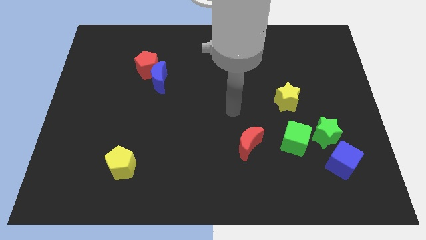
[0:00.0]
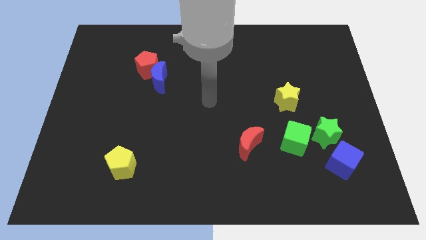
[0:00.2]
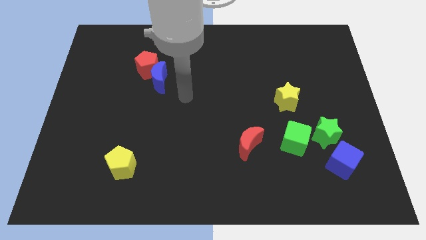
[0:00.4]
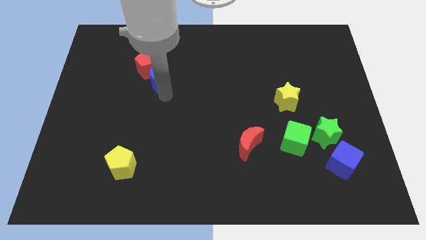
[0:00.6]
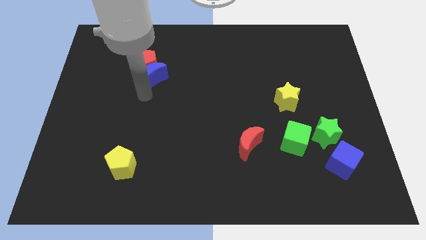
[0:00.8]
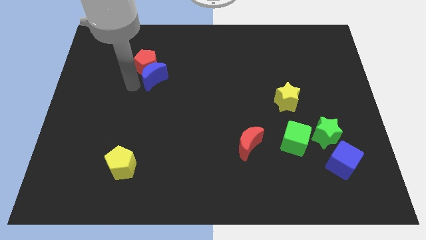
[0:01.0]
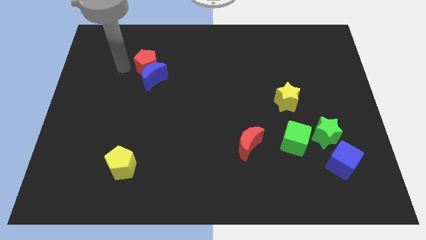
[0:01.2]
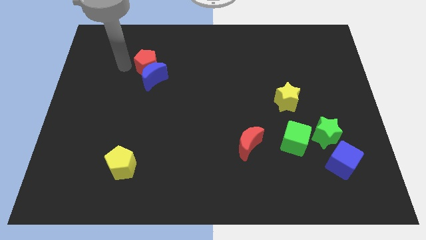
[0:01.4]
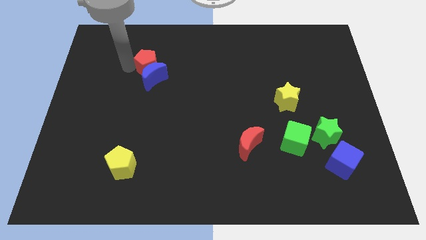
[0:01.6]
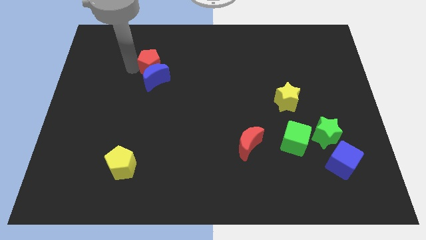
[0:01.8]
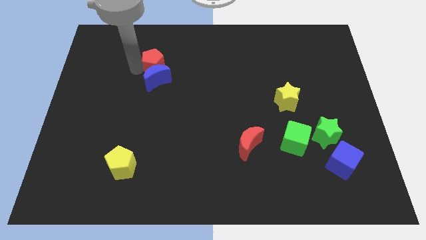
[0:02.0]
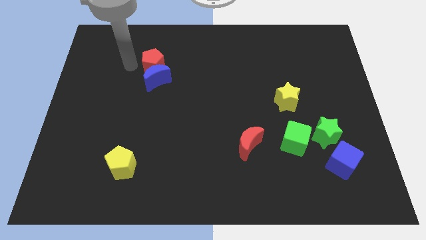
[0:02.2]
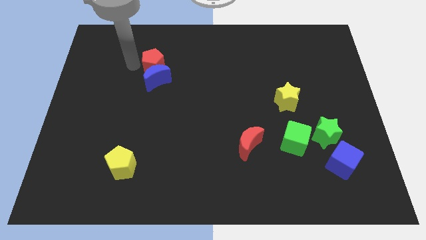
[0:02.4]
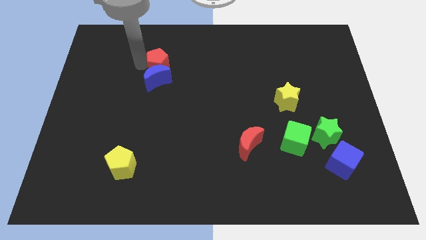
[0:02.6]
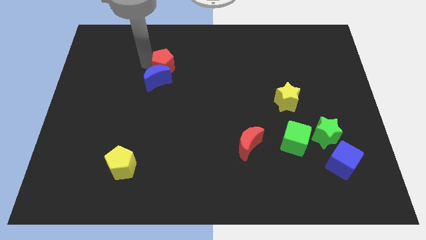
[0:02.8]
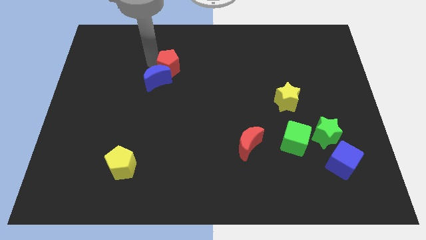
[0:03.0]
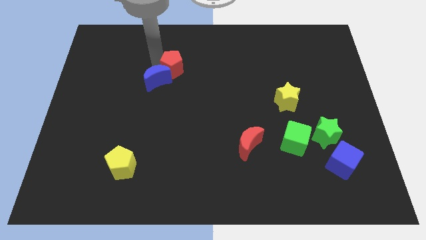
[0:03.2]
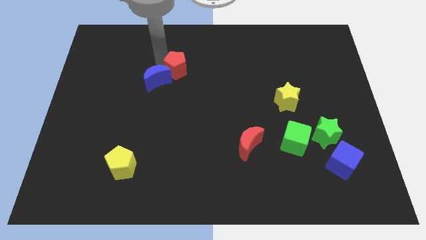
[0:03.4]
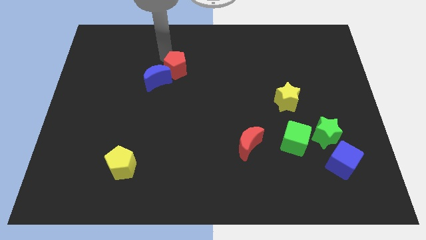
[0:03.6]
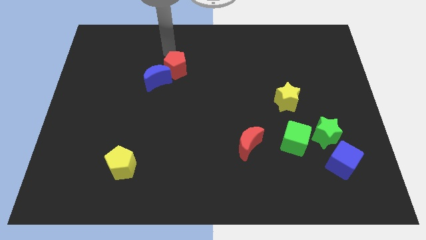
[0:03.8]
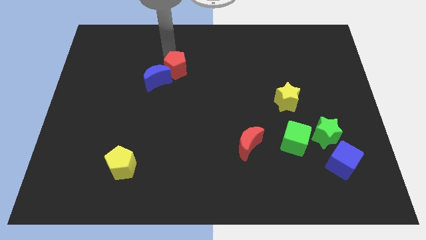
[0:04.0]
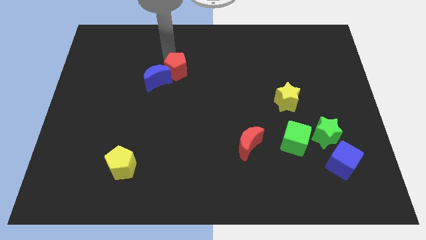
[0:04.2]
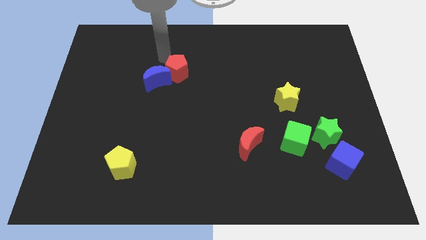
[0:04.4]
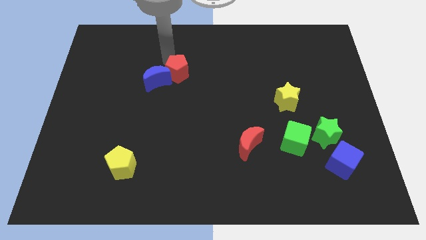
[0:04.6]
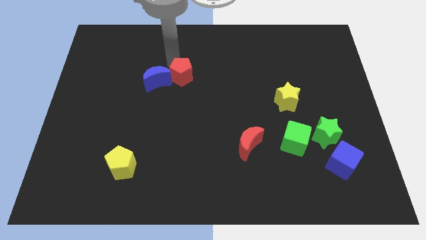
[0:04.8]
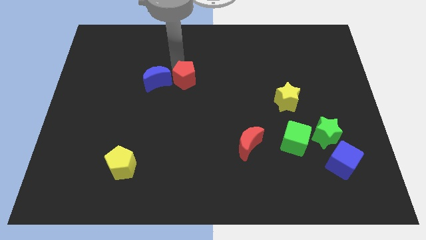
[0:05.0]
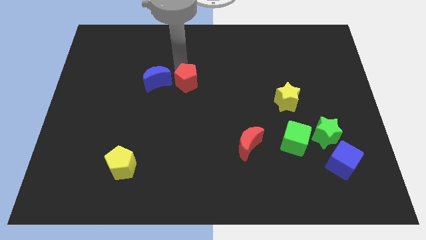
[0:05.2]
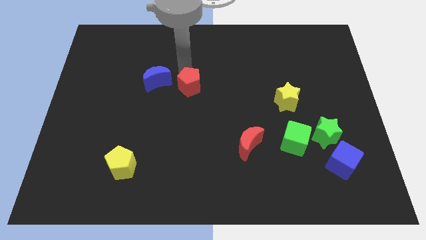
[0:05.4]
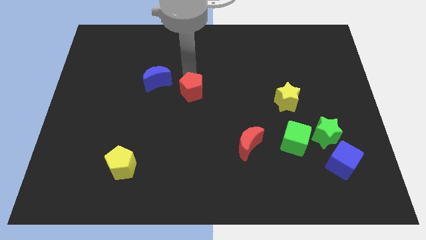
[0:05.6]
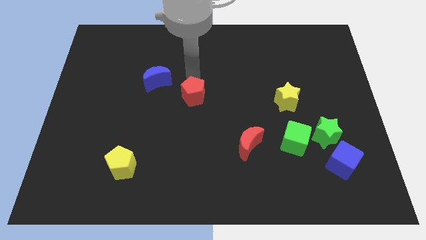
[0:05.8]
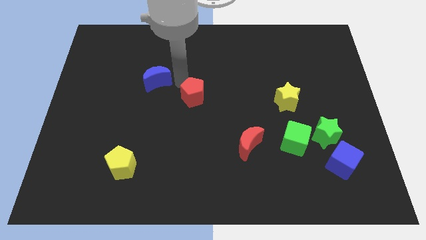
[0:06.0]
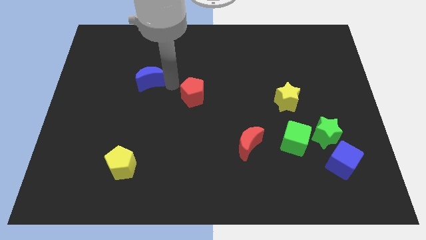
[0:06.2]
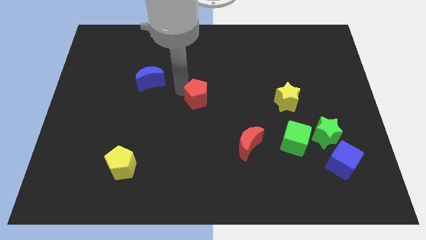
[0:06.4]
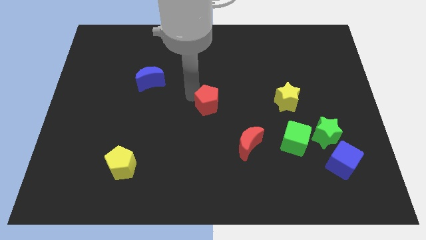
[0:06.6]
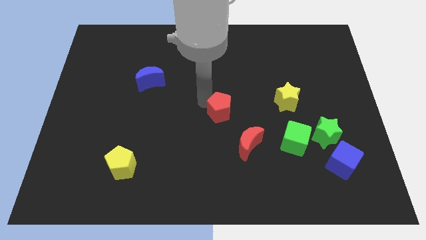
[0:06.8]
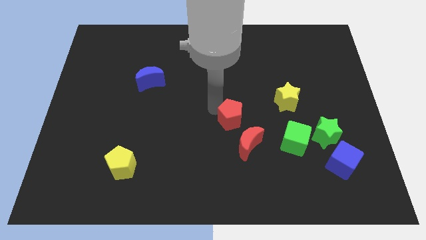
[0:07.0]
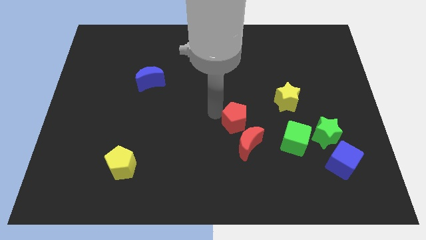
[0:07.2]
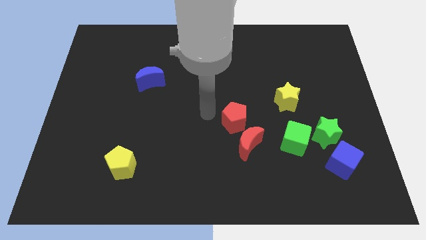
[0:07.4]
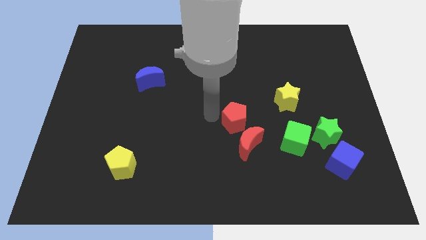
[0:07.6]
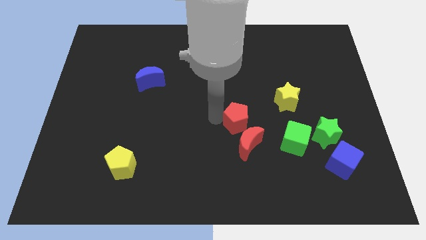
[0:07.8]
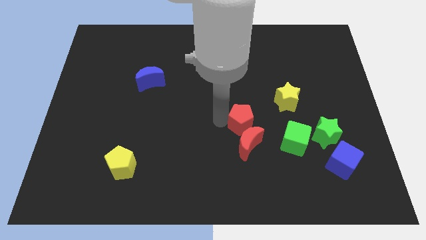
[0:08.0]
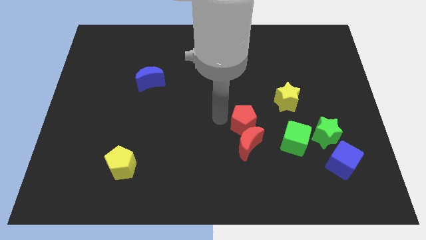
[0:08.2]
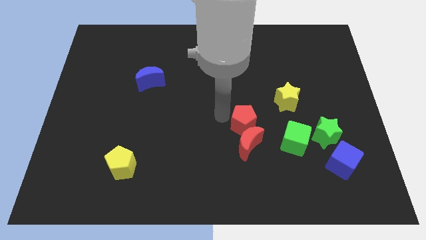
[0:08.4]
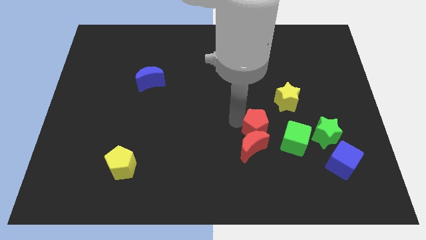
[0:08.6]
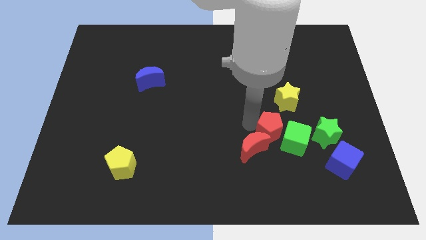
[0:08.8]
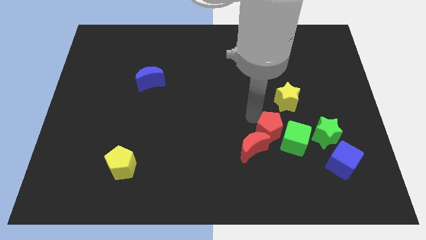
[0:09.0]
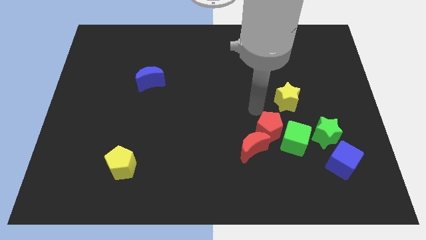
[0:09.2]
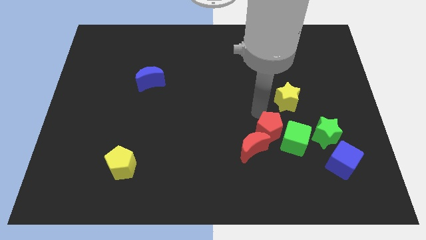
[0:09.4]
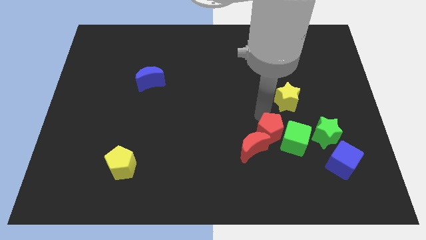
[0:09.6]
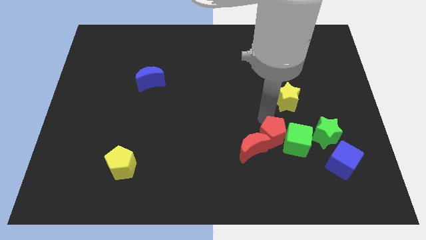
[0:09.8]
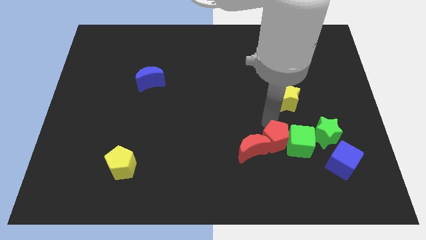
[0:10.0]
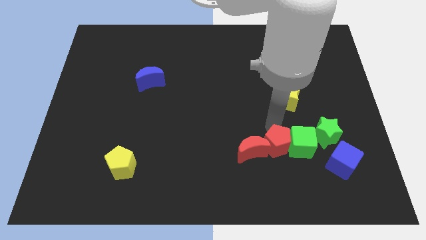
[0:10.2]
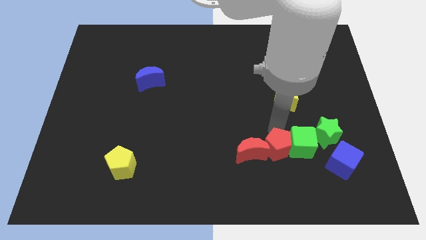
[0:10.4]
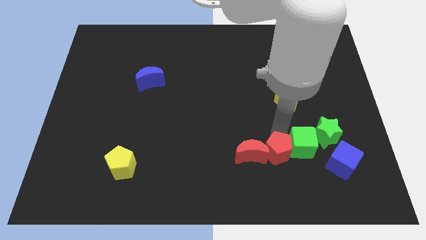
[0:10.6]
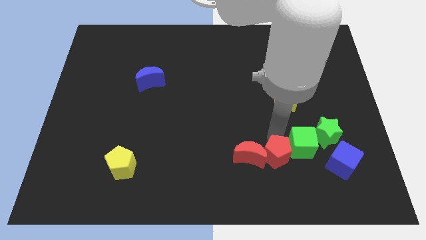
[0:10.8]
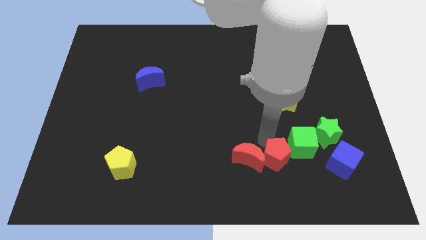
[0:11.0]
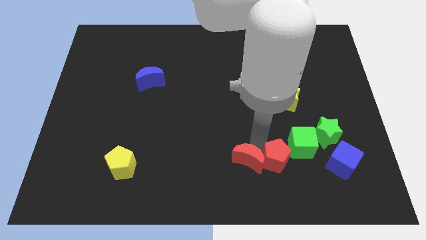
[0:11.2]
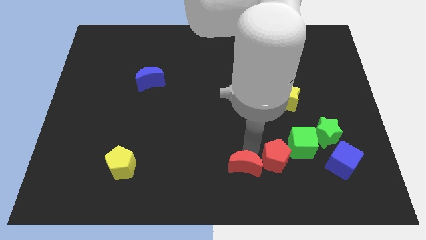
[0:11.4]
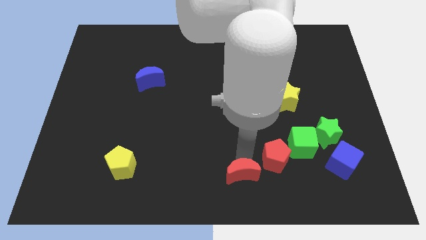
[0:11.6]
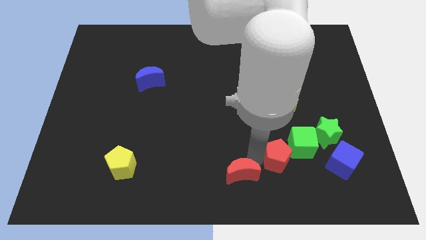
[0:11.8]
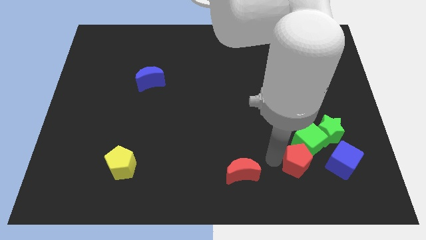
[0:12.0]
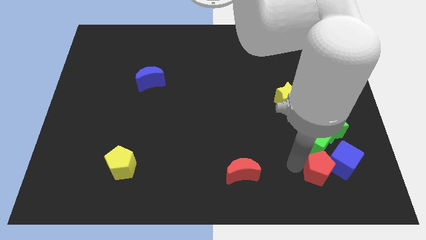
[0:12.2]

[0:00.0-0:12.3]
push the red pentagon to the blue cube

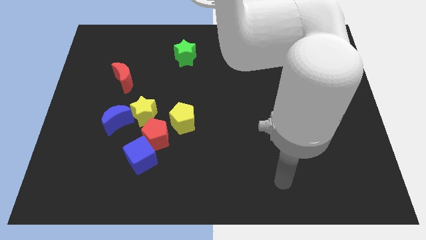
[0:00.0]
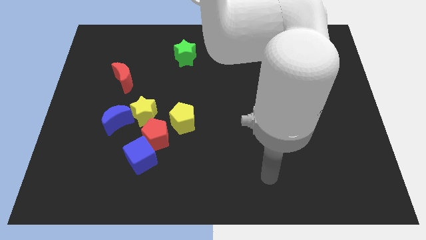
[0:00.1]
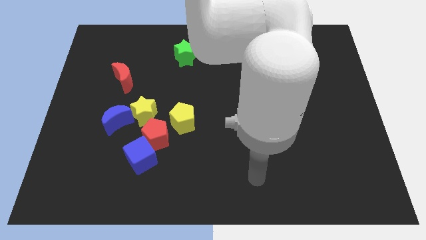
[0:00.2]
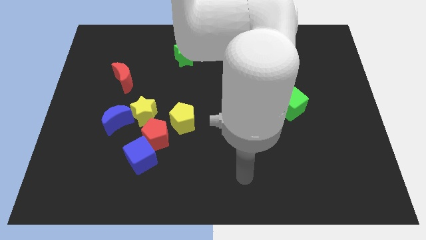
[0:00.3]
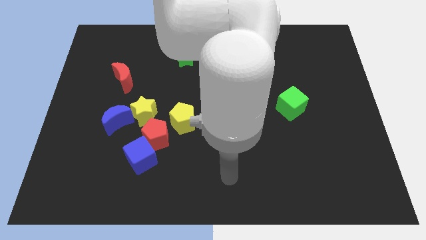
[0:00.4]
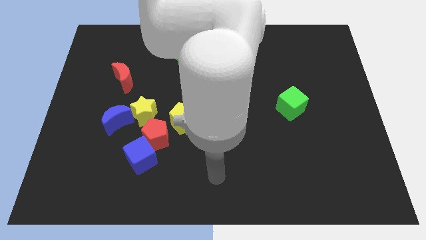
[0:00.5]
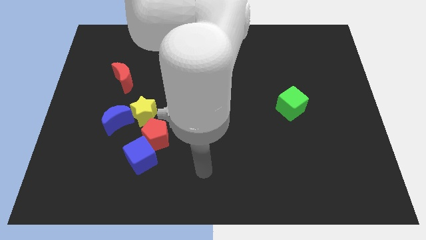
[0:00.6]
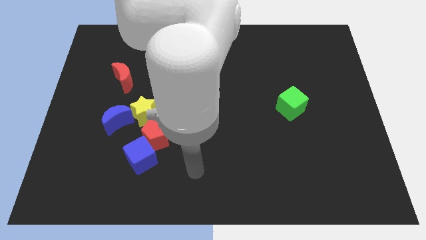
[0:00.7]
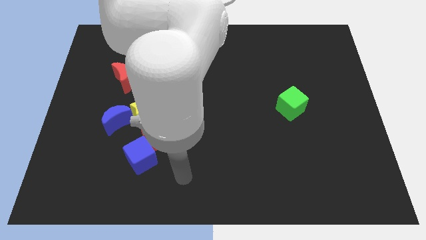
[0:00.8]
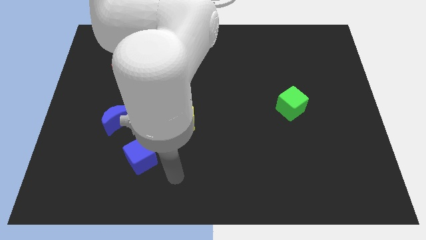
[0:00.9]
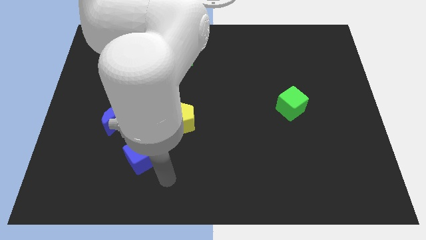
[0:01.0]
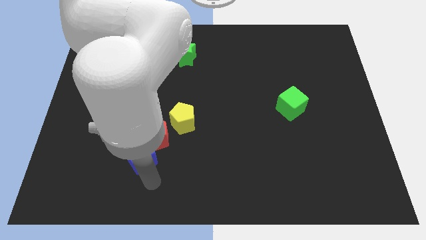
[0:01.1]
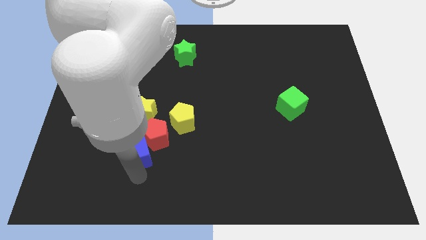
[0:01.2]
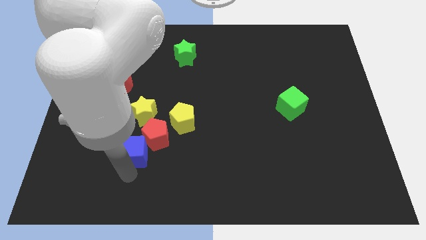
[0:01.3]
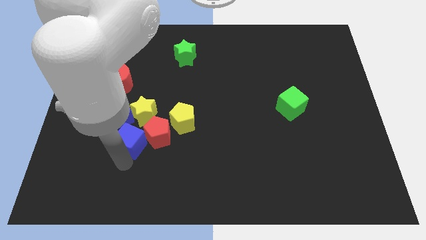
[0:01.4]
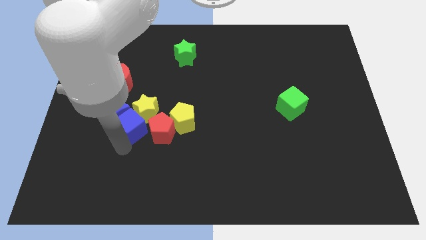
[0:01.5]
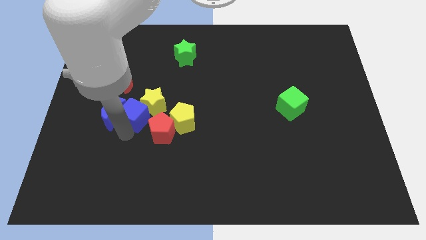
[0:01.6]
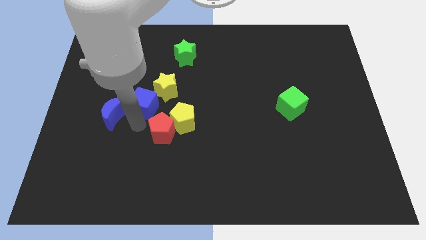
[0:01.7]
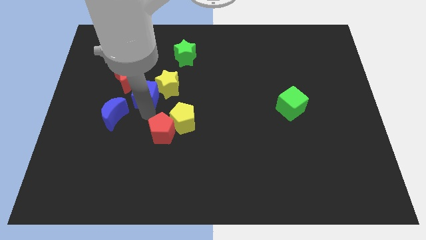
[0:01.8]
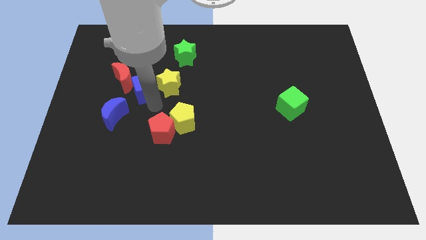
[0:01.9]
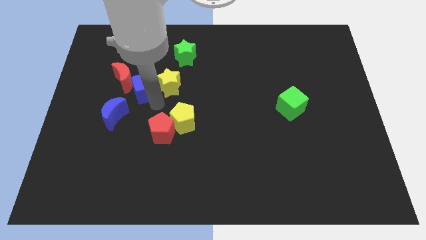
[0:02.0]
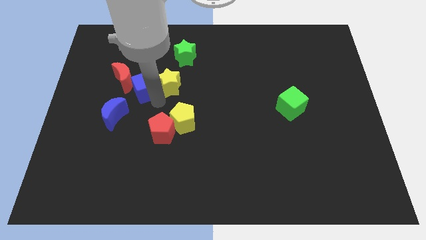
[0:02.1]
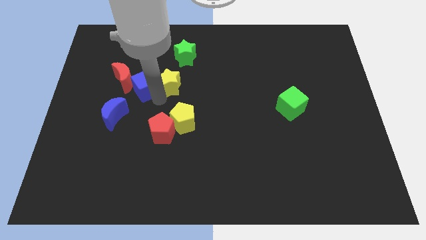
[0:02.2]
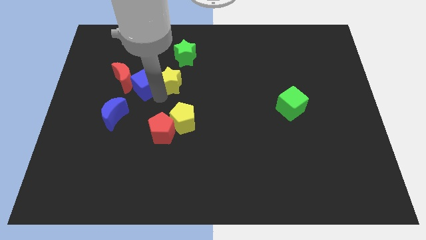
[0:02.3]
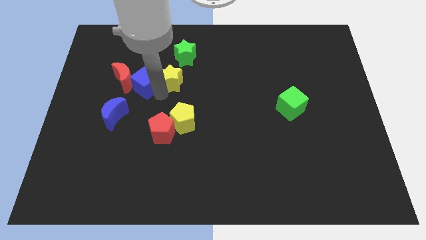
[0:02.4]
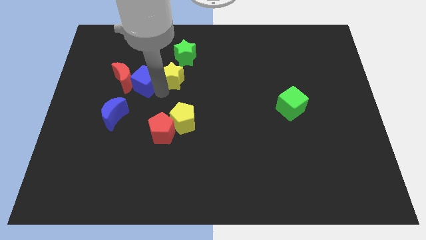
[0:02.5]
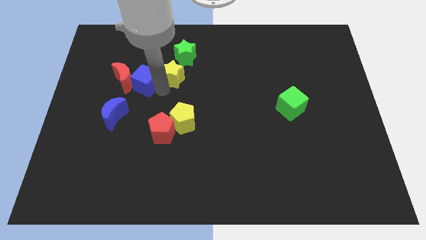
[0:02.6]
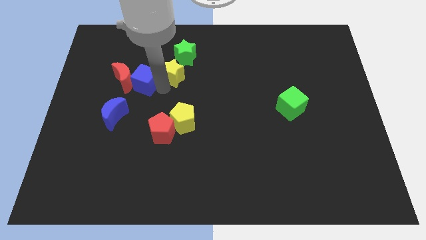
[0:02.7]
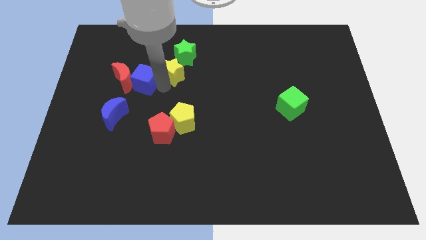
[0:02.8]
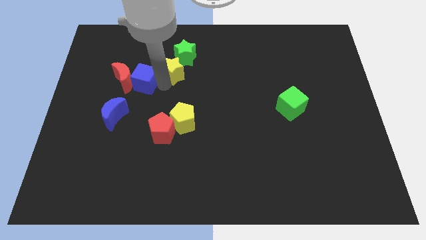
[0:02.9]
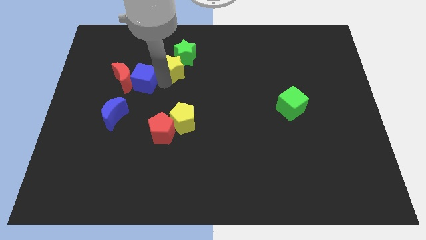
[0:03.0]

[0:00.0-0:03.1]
push the yellow star towards the green star
